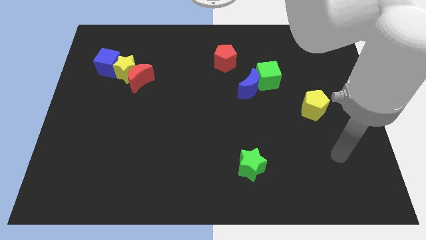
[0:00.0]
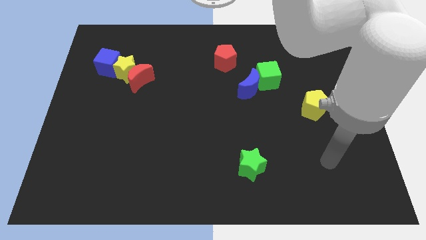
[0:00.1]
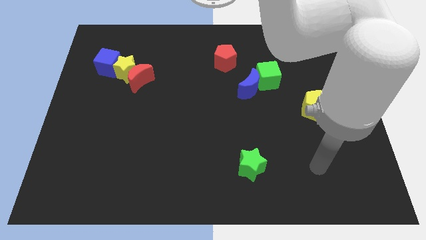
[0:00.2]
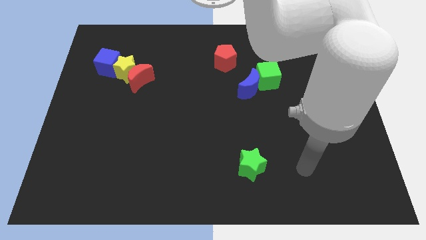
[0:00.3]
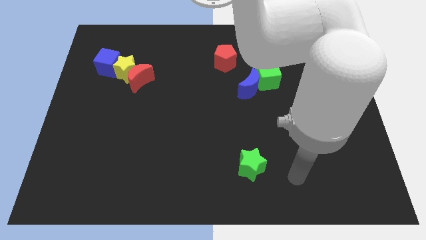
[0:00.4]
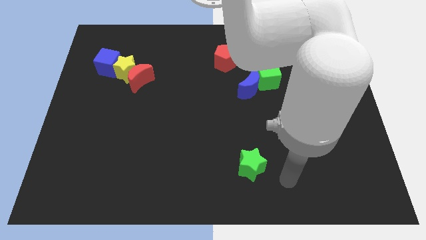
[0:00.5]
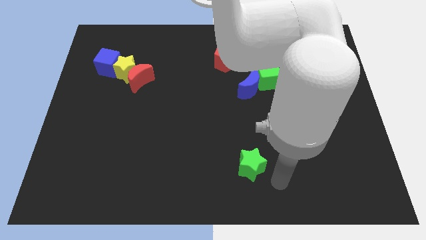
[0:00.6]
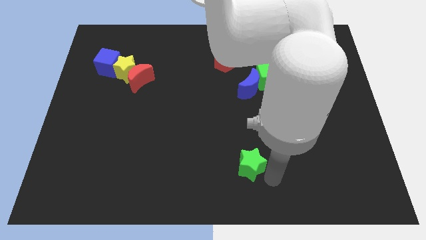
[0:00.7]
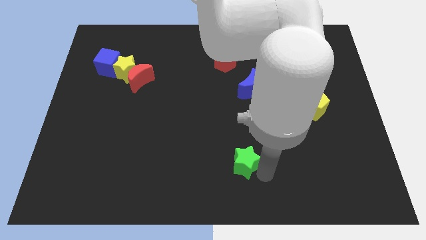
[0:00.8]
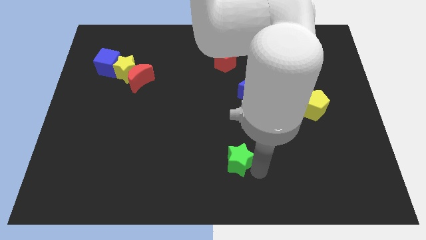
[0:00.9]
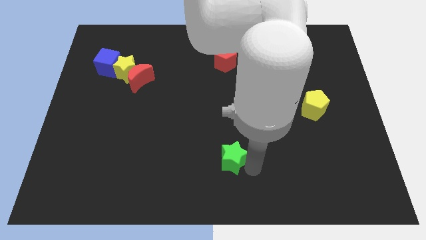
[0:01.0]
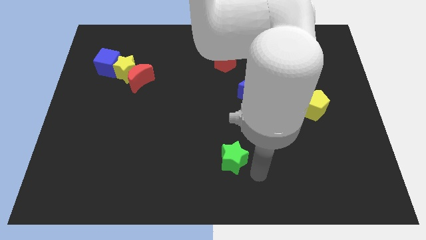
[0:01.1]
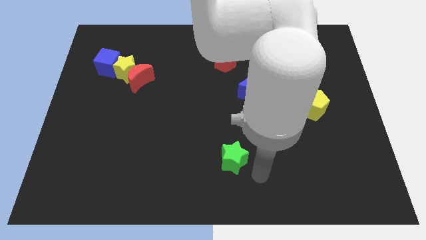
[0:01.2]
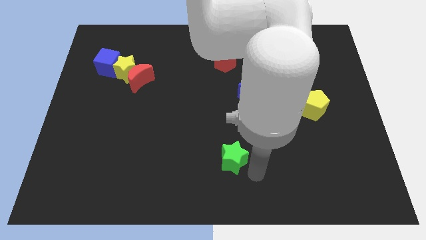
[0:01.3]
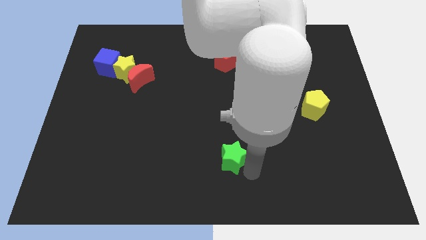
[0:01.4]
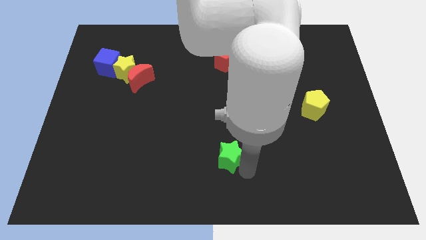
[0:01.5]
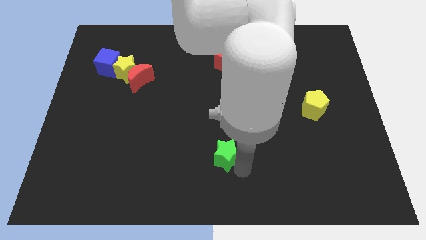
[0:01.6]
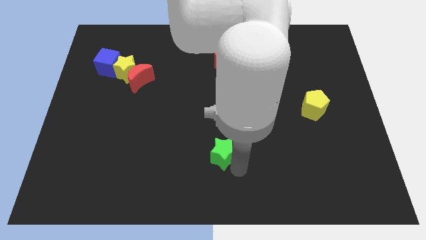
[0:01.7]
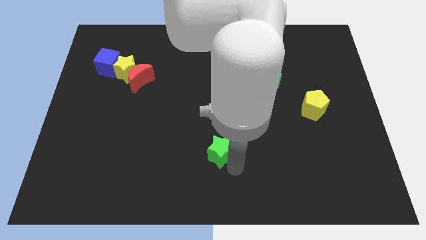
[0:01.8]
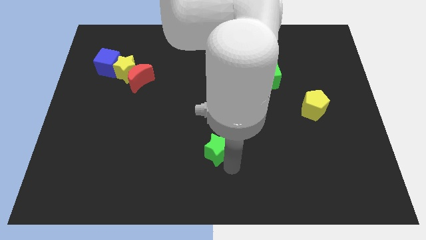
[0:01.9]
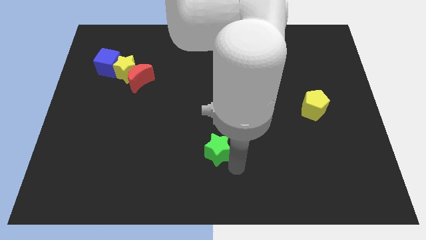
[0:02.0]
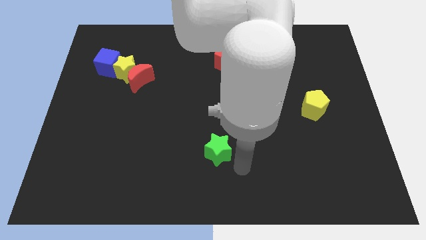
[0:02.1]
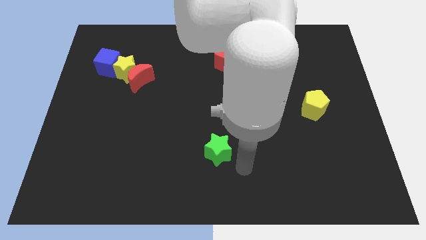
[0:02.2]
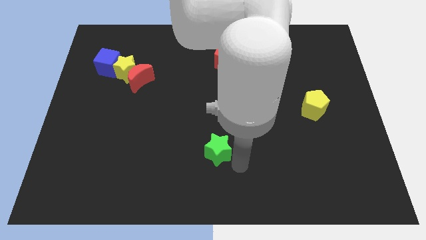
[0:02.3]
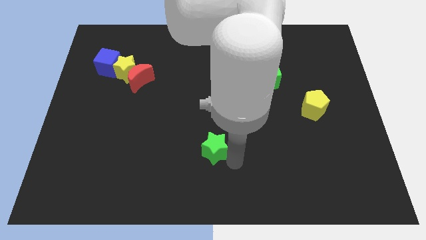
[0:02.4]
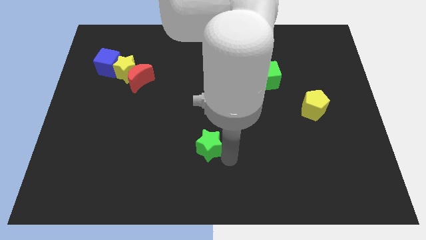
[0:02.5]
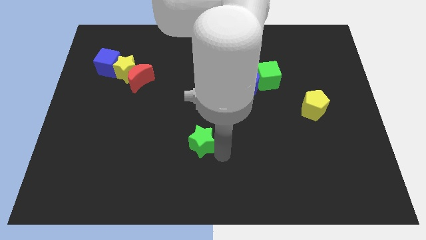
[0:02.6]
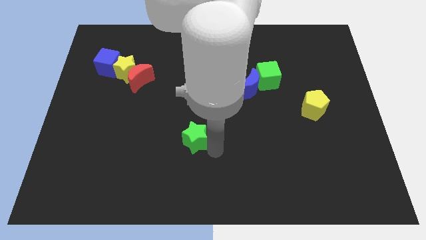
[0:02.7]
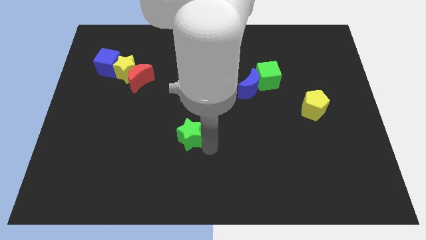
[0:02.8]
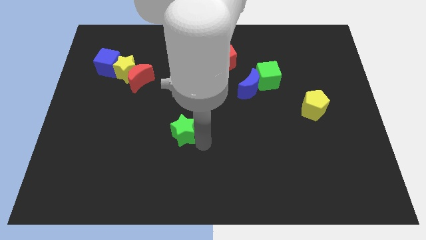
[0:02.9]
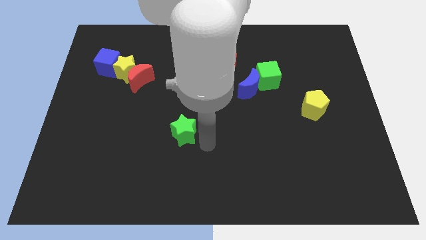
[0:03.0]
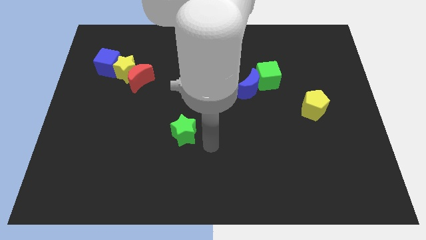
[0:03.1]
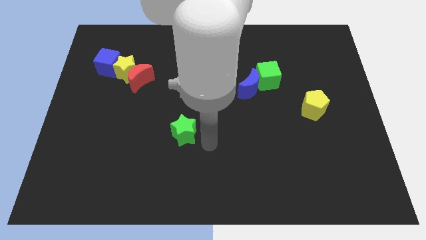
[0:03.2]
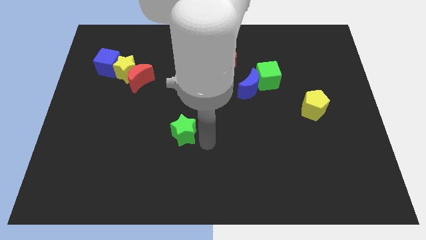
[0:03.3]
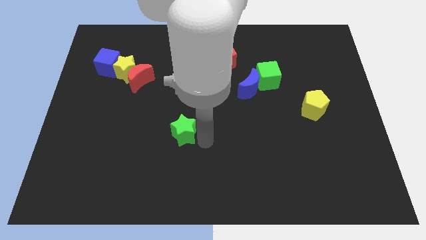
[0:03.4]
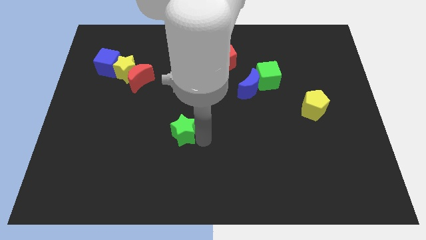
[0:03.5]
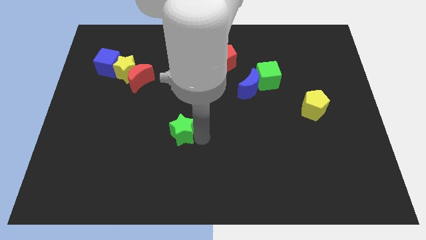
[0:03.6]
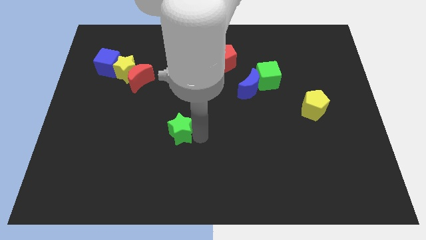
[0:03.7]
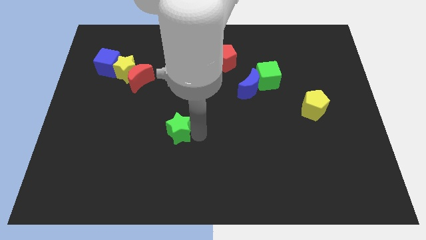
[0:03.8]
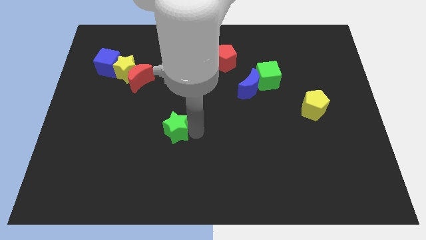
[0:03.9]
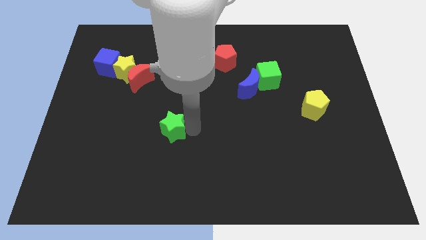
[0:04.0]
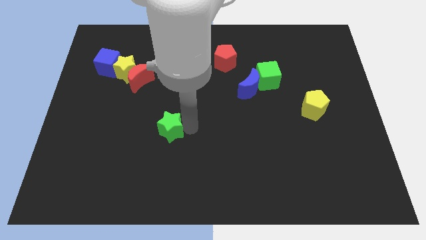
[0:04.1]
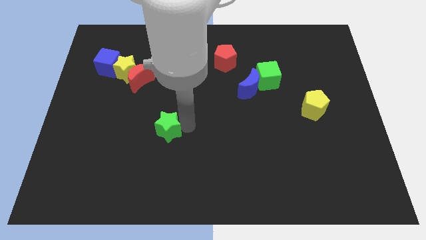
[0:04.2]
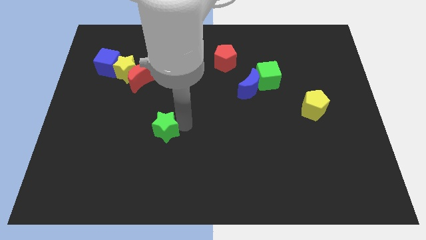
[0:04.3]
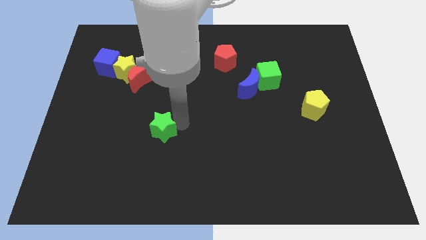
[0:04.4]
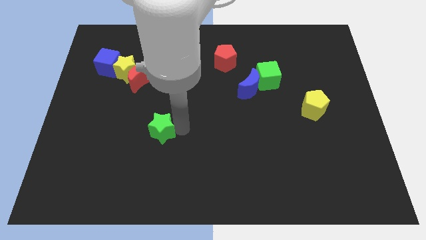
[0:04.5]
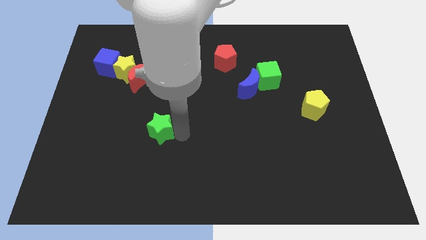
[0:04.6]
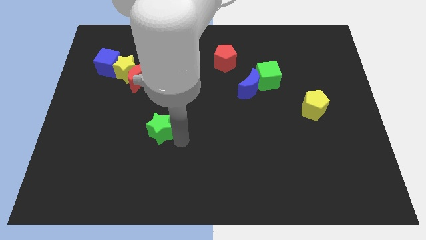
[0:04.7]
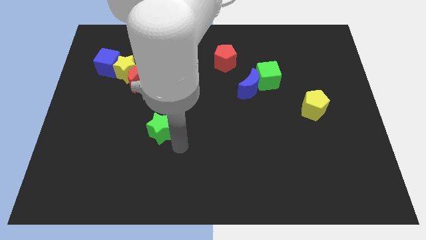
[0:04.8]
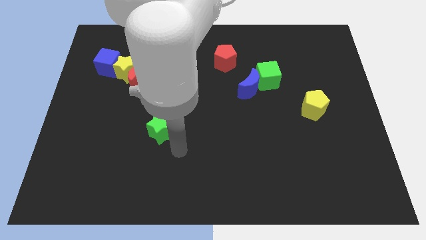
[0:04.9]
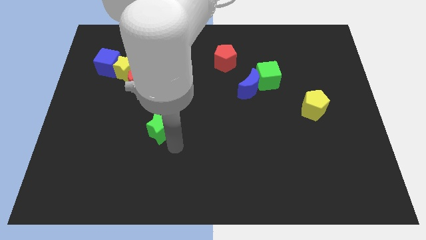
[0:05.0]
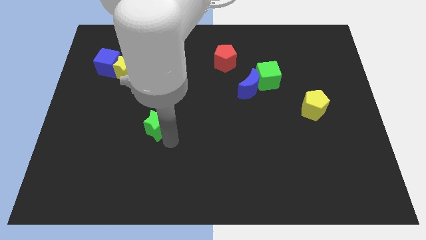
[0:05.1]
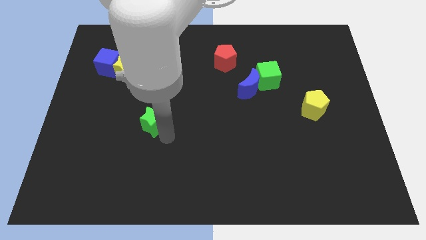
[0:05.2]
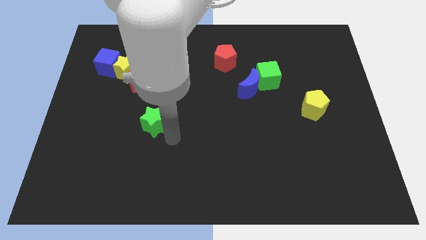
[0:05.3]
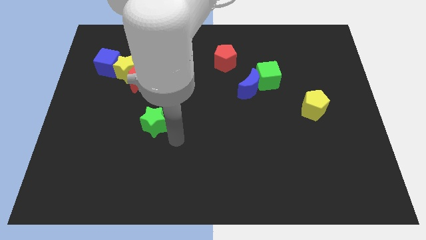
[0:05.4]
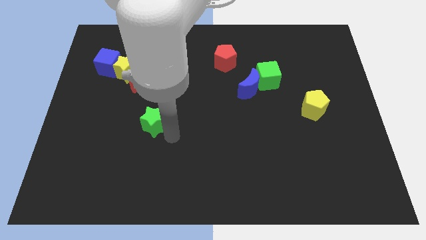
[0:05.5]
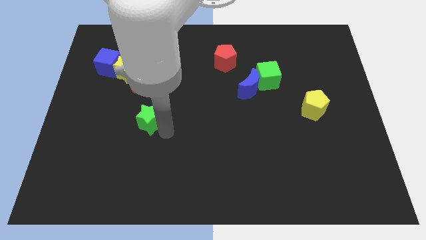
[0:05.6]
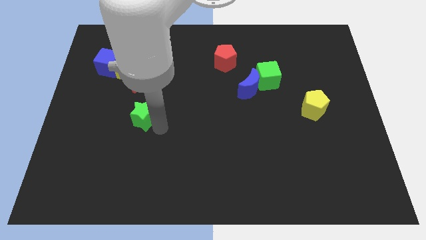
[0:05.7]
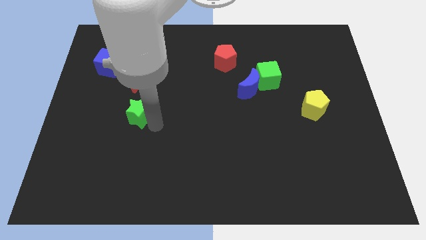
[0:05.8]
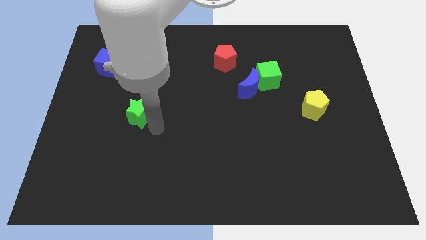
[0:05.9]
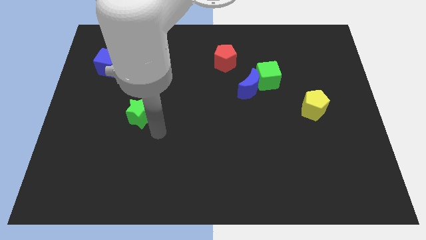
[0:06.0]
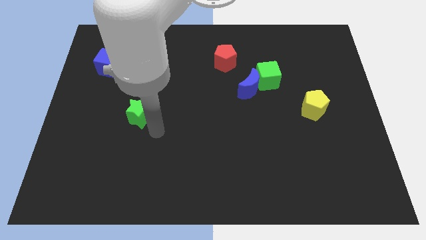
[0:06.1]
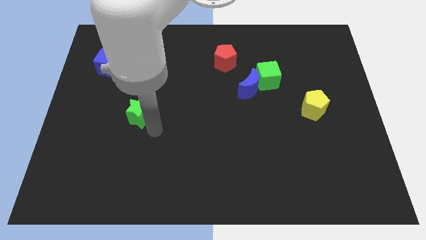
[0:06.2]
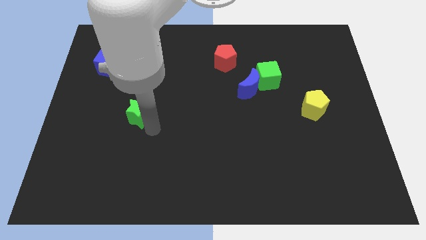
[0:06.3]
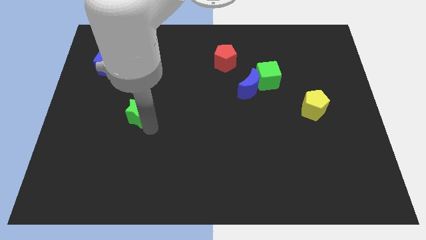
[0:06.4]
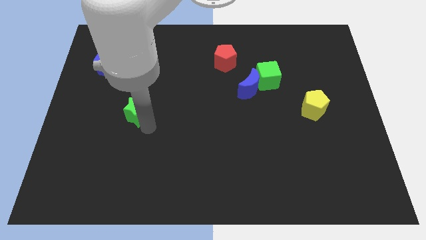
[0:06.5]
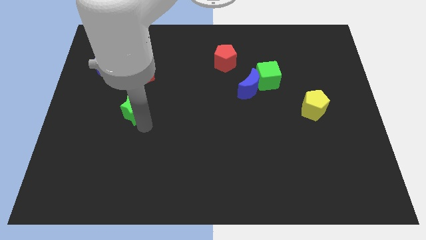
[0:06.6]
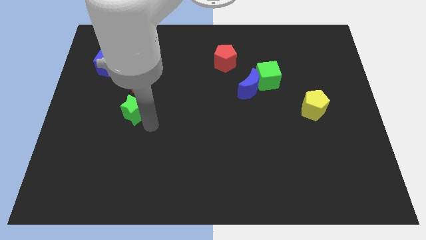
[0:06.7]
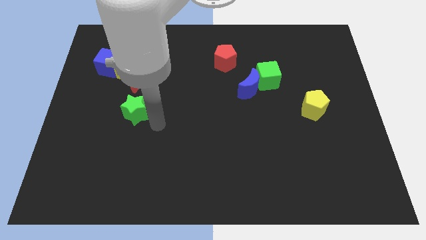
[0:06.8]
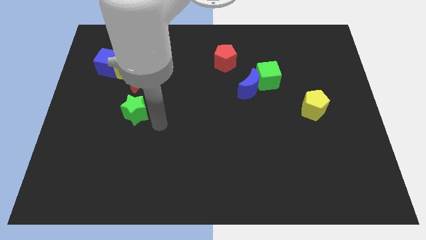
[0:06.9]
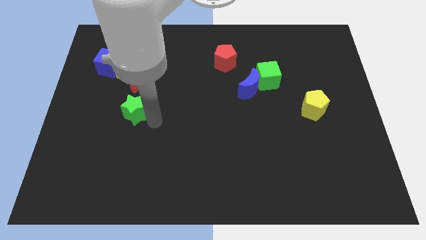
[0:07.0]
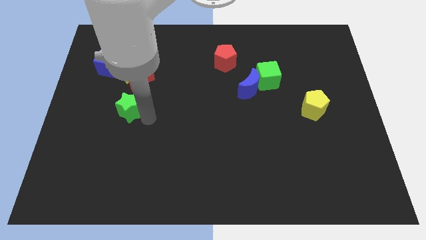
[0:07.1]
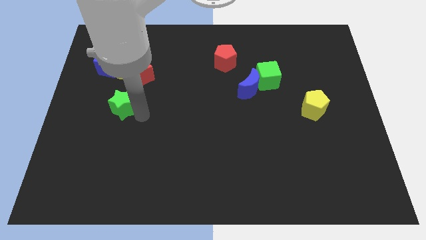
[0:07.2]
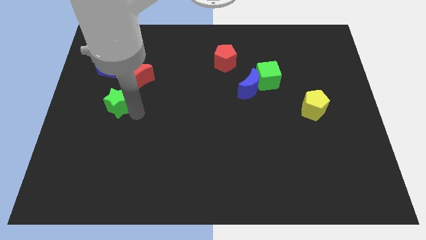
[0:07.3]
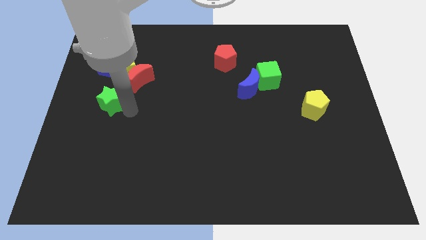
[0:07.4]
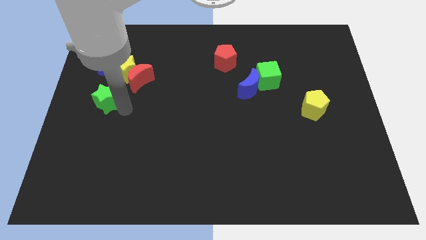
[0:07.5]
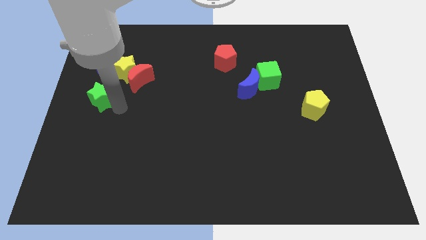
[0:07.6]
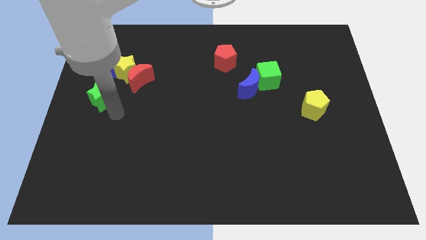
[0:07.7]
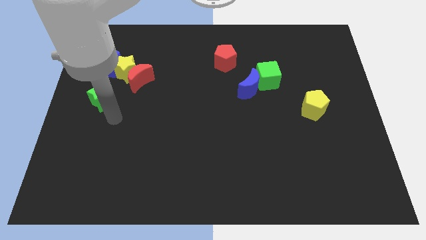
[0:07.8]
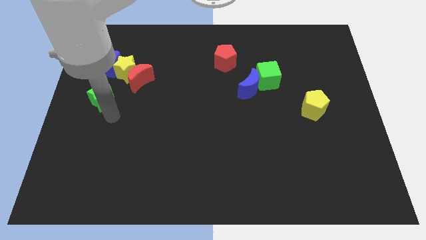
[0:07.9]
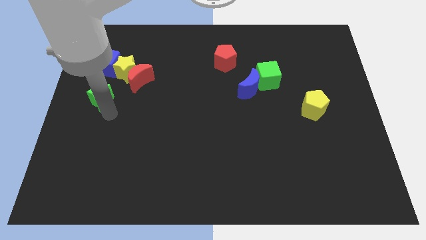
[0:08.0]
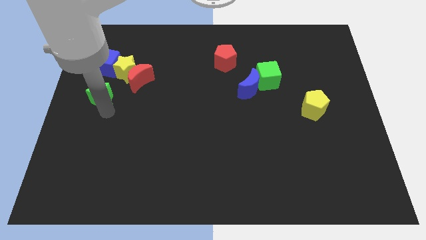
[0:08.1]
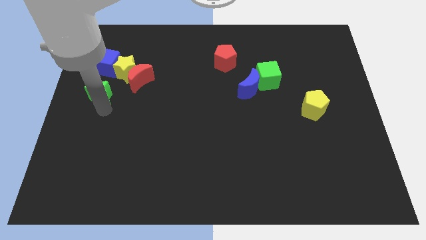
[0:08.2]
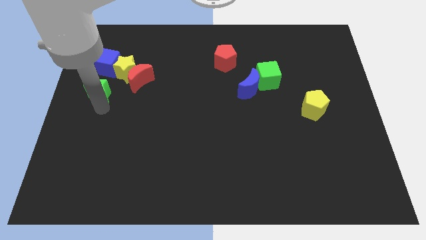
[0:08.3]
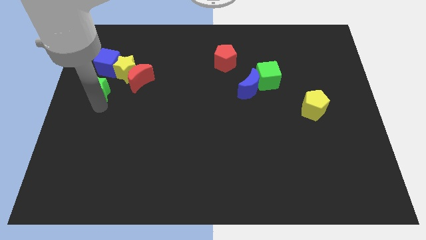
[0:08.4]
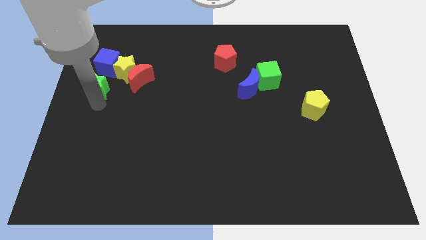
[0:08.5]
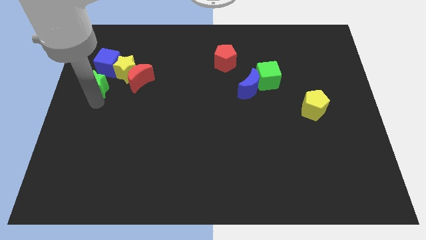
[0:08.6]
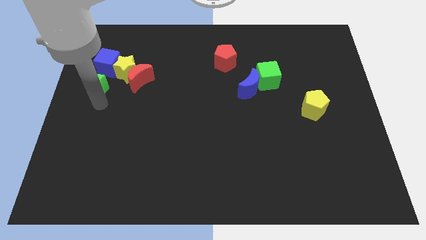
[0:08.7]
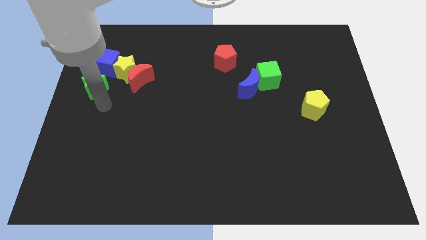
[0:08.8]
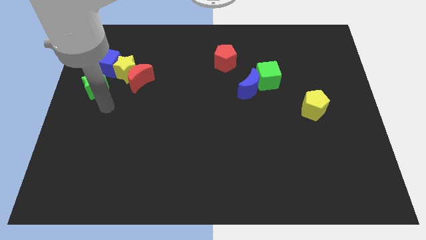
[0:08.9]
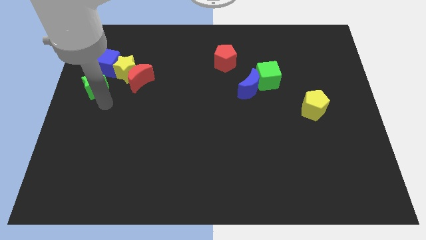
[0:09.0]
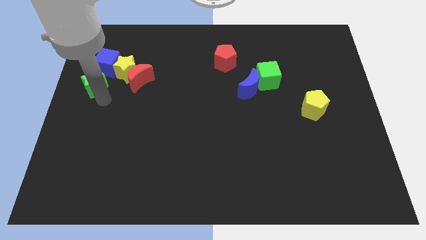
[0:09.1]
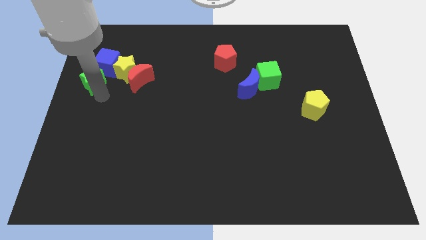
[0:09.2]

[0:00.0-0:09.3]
push the green star to the blue cube
